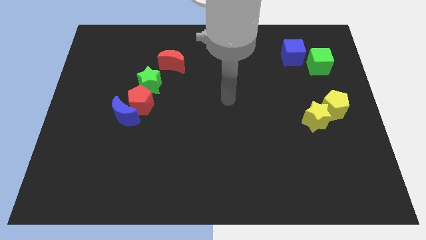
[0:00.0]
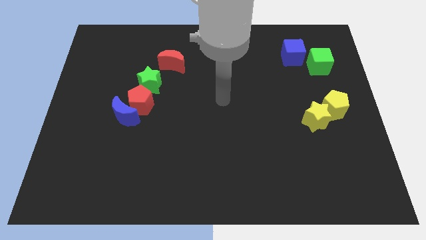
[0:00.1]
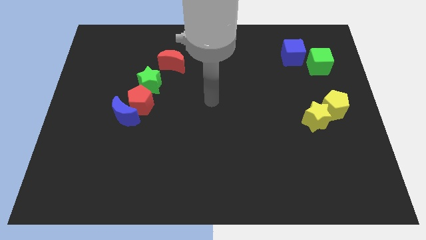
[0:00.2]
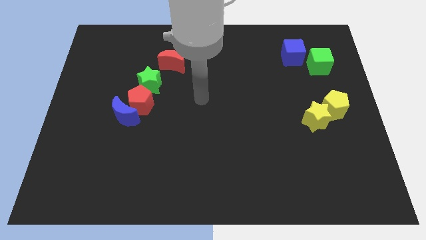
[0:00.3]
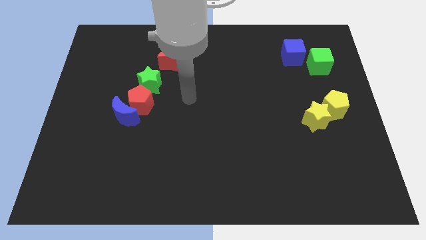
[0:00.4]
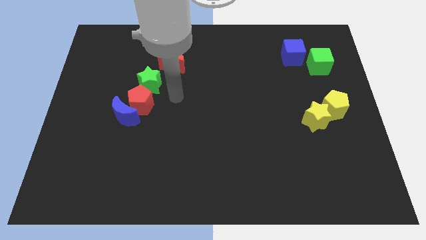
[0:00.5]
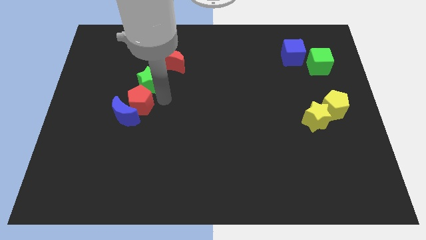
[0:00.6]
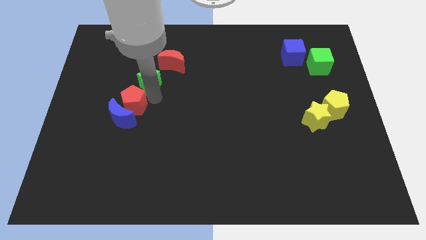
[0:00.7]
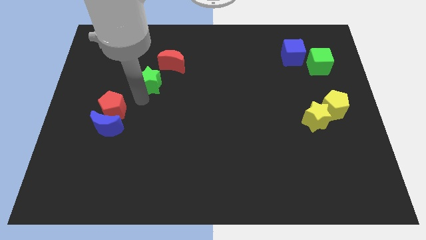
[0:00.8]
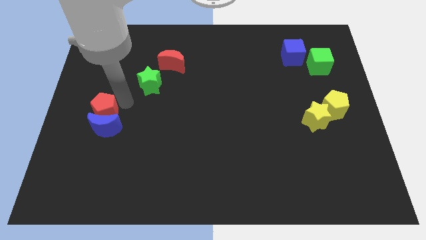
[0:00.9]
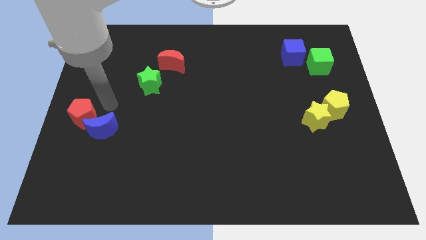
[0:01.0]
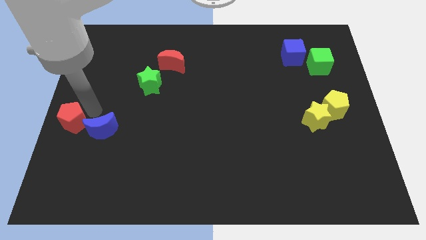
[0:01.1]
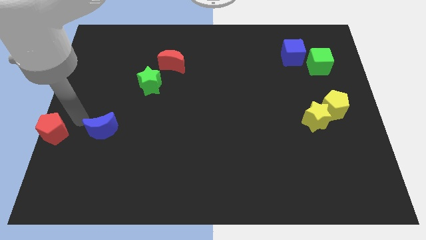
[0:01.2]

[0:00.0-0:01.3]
move the blue moon away from the red pentagon

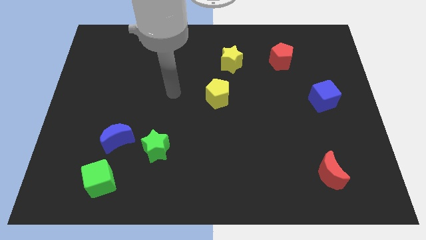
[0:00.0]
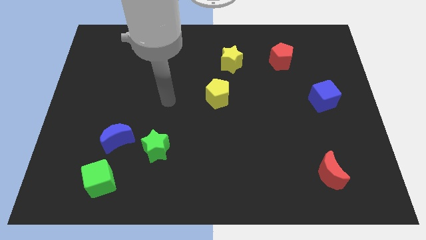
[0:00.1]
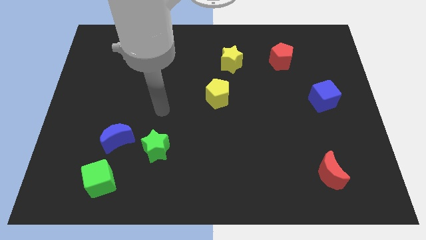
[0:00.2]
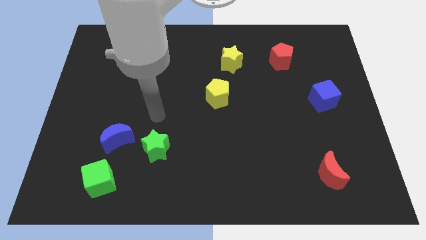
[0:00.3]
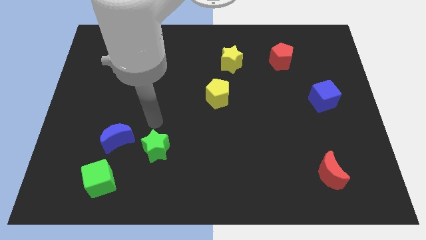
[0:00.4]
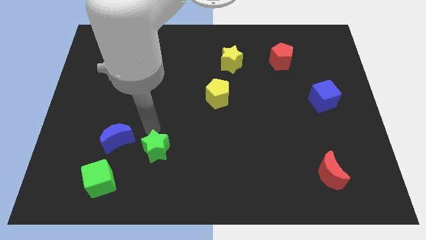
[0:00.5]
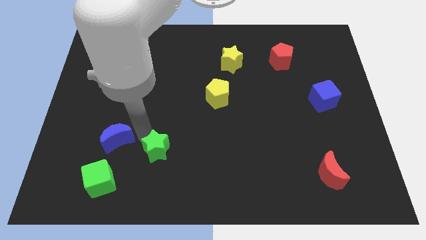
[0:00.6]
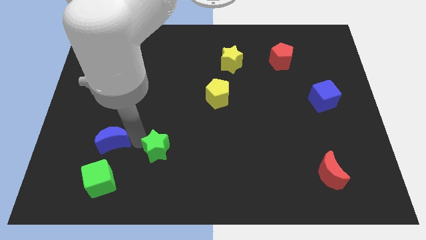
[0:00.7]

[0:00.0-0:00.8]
separate the green star from the blue moon

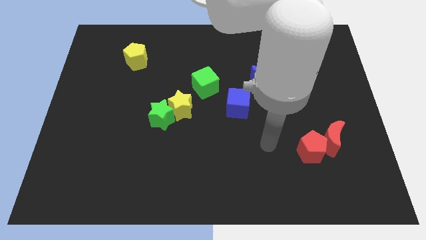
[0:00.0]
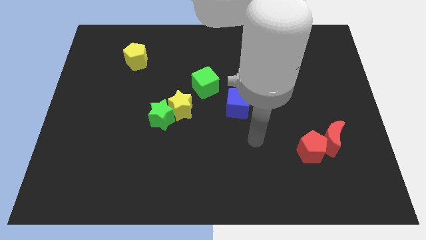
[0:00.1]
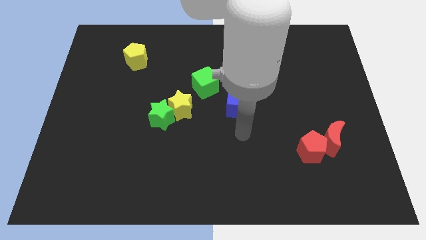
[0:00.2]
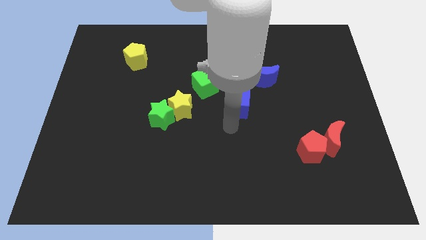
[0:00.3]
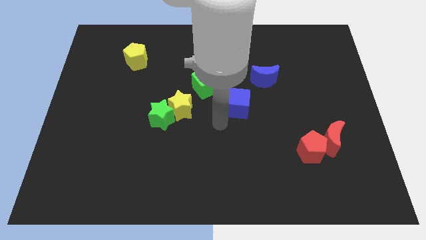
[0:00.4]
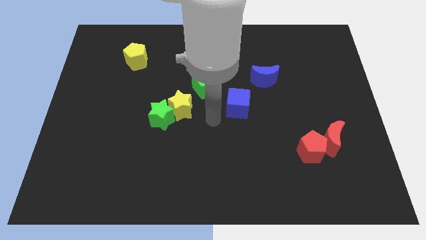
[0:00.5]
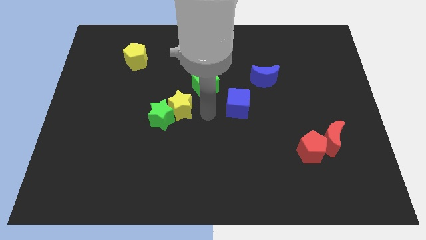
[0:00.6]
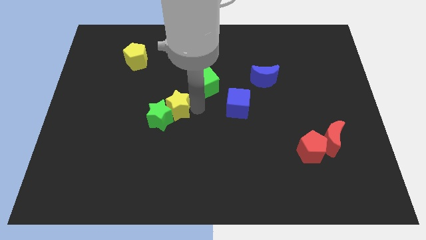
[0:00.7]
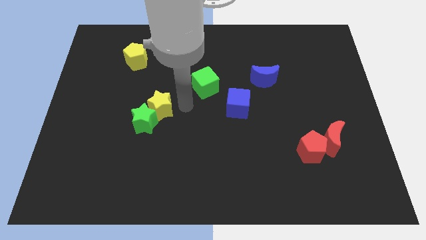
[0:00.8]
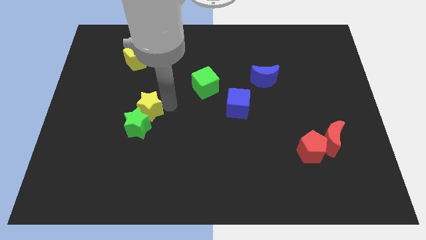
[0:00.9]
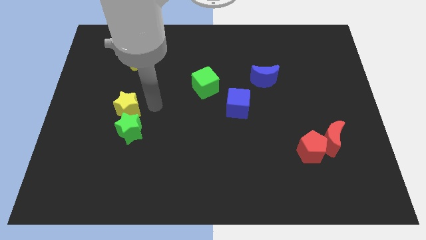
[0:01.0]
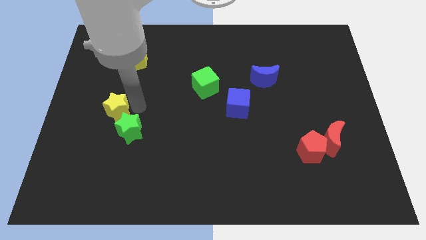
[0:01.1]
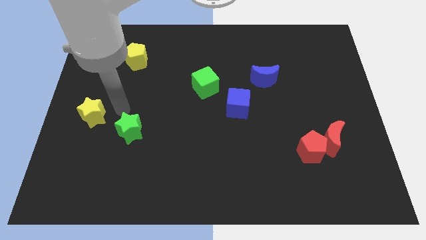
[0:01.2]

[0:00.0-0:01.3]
pull the green star apart from the yellow star

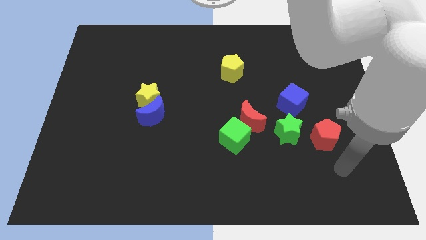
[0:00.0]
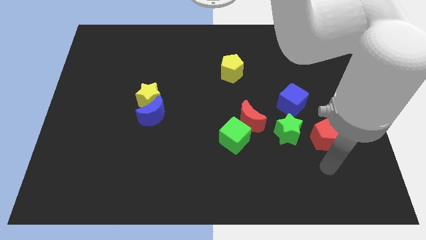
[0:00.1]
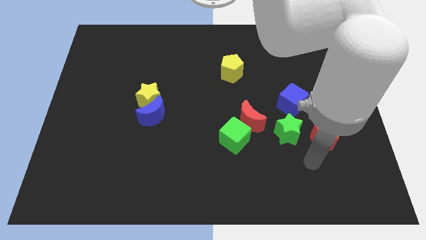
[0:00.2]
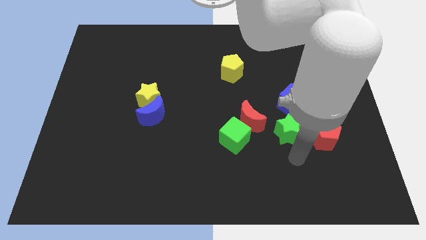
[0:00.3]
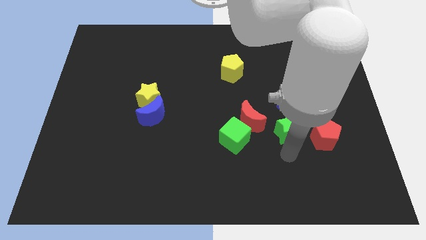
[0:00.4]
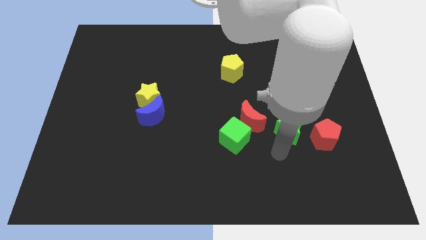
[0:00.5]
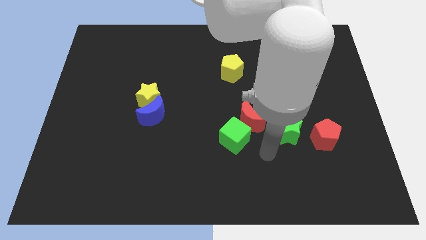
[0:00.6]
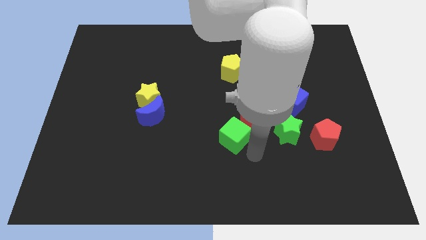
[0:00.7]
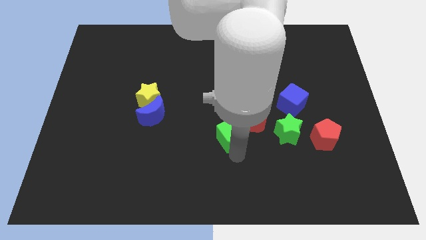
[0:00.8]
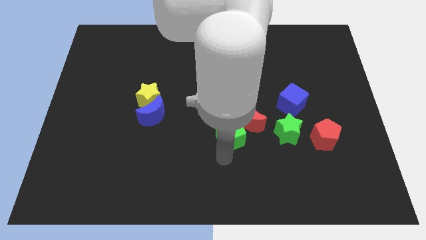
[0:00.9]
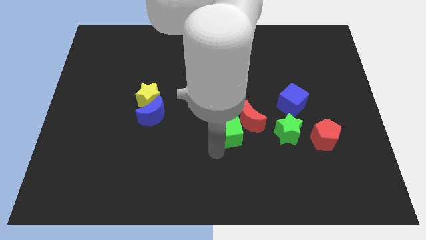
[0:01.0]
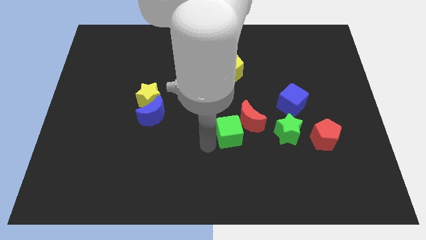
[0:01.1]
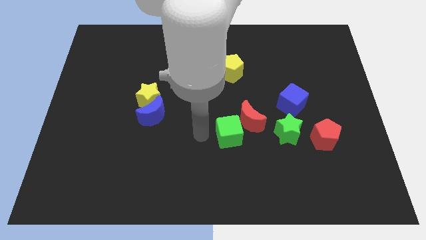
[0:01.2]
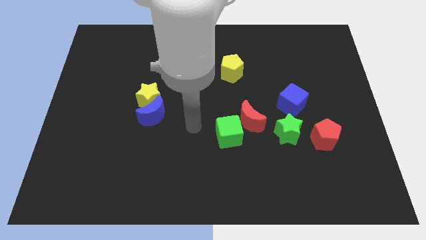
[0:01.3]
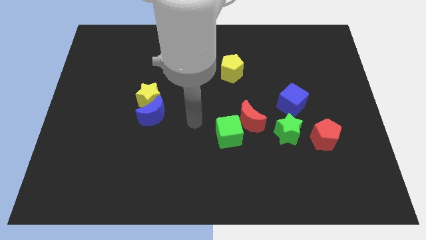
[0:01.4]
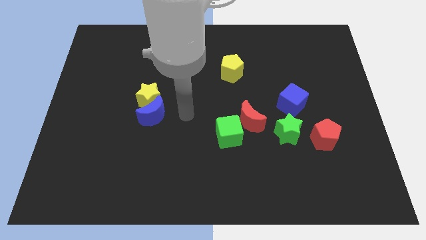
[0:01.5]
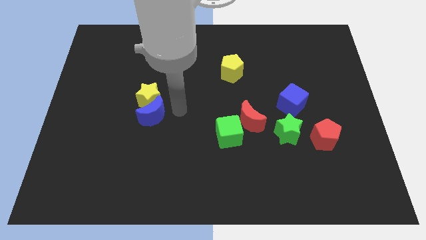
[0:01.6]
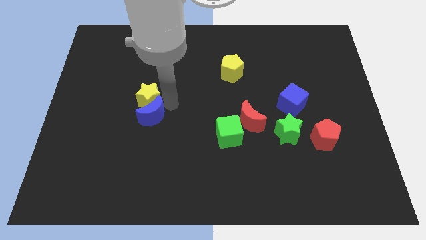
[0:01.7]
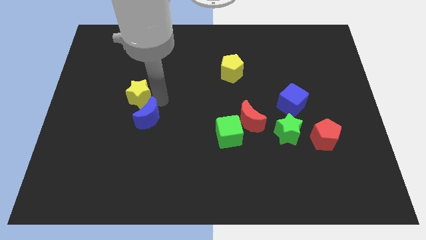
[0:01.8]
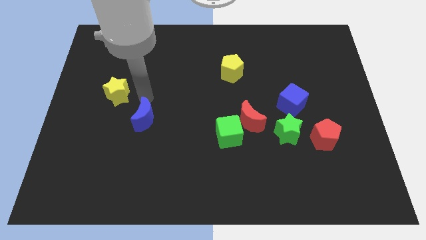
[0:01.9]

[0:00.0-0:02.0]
separate the blue moon from the yellow star

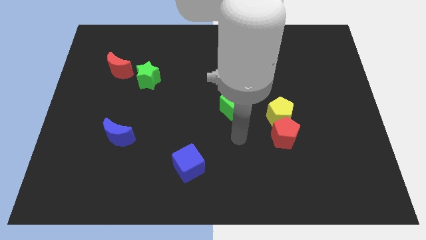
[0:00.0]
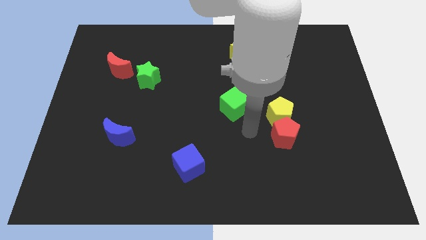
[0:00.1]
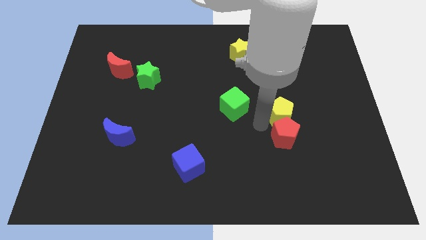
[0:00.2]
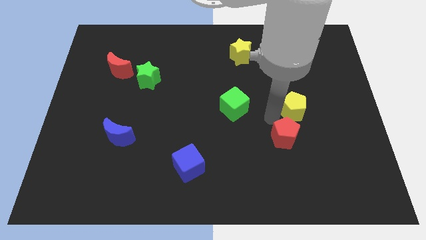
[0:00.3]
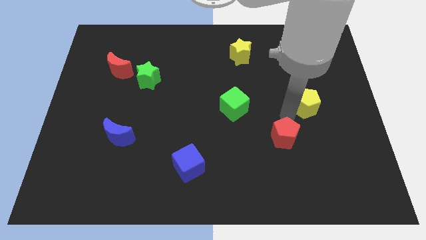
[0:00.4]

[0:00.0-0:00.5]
pull the red pentagon apart from the yellow pentagon

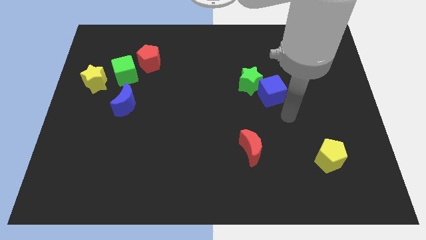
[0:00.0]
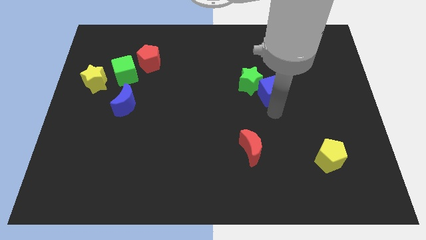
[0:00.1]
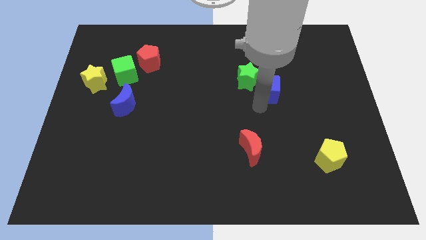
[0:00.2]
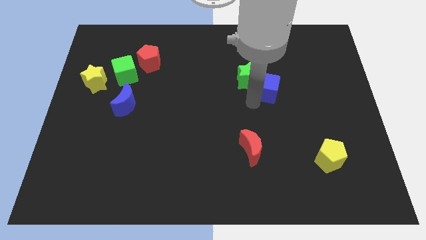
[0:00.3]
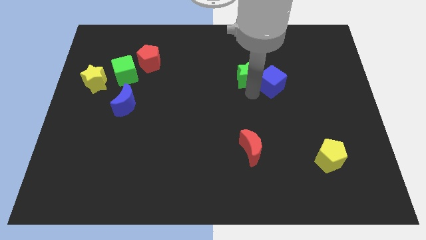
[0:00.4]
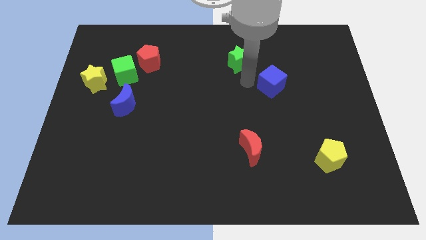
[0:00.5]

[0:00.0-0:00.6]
pull the blue cube apart from the green star

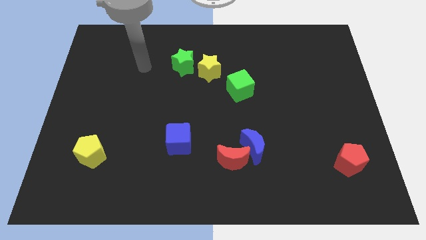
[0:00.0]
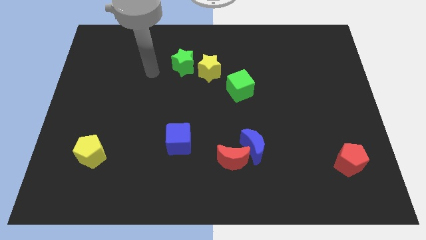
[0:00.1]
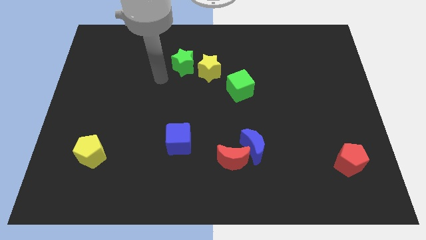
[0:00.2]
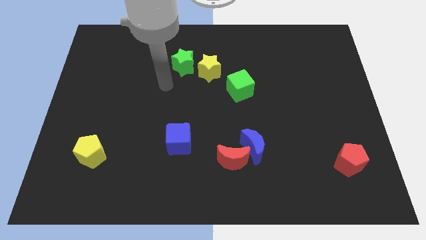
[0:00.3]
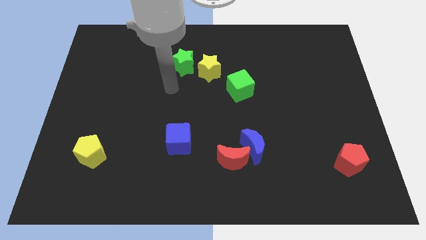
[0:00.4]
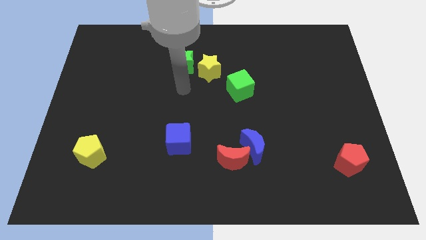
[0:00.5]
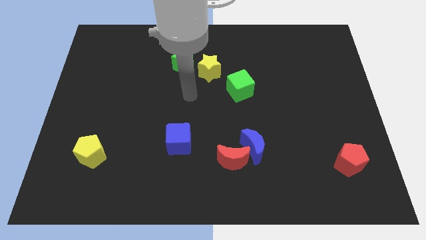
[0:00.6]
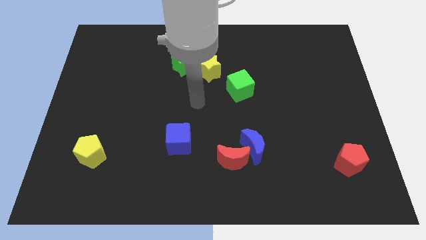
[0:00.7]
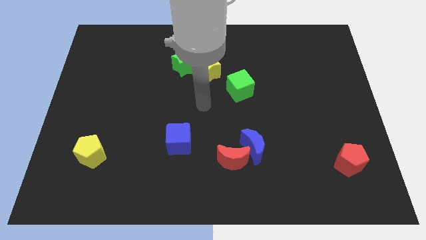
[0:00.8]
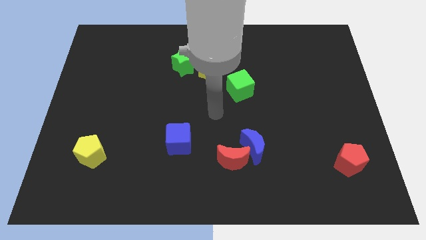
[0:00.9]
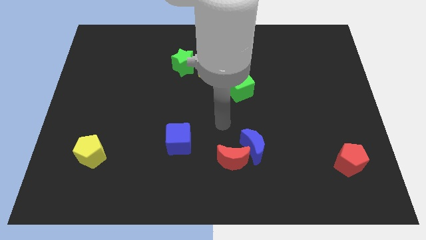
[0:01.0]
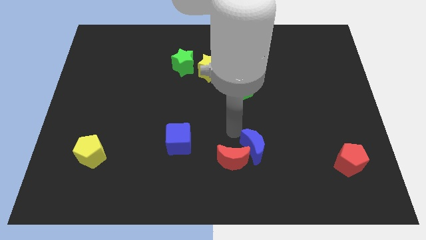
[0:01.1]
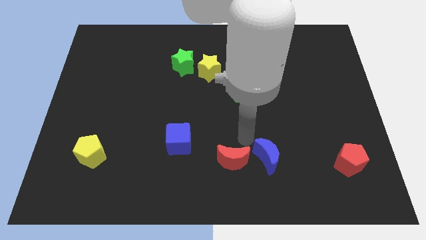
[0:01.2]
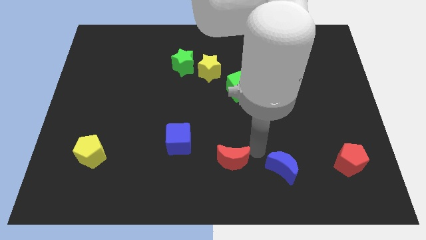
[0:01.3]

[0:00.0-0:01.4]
pull the red moon apart from the blue moon

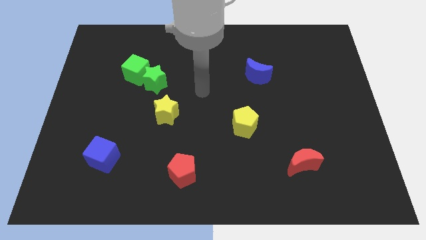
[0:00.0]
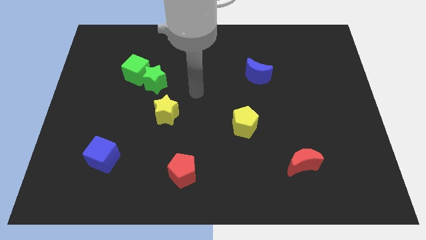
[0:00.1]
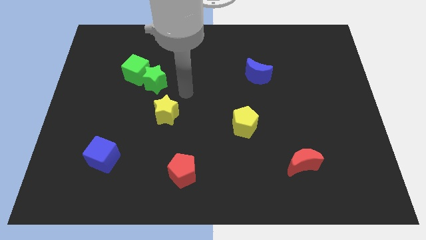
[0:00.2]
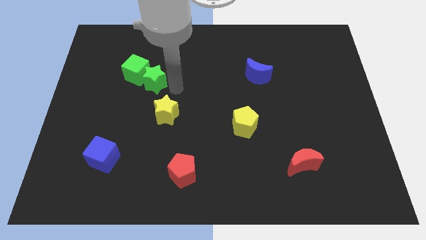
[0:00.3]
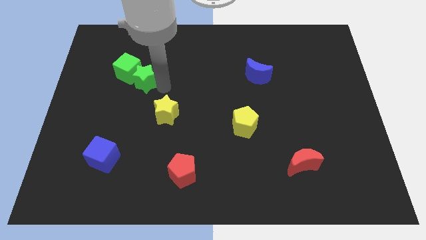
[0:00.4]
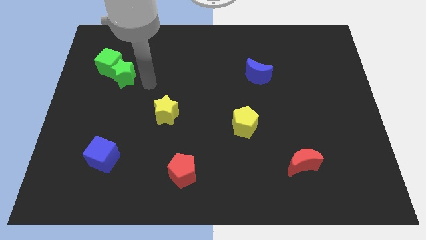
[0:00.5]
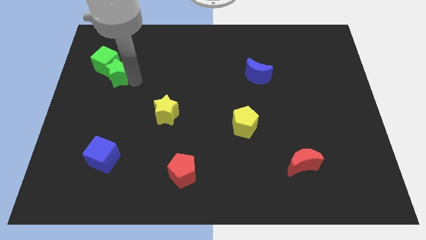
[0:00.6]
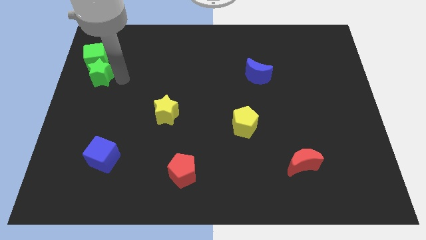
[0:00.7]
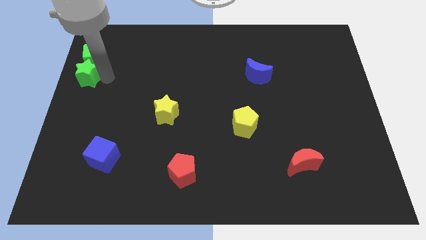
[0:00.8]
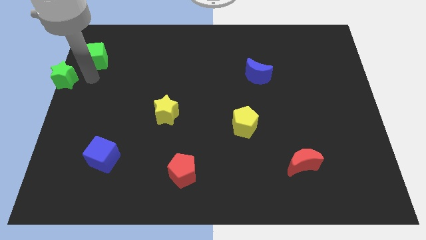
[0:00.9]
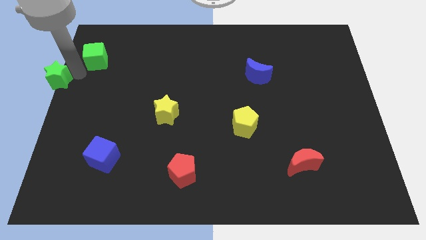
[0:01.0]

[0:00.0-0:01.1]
separate the green cube from the green star

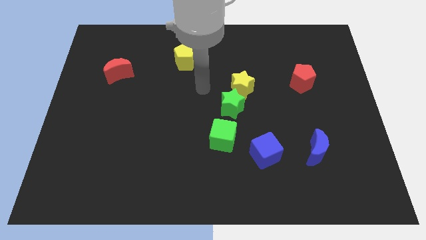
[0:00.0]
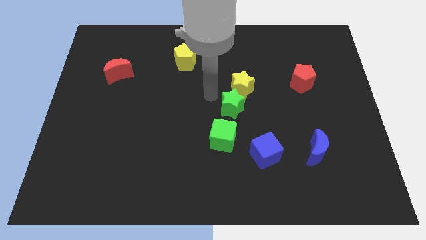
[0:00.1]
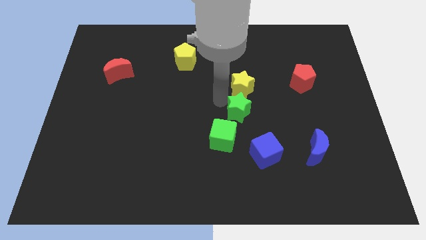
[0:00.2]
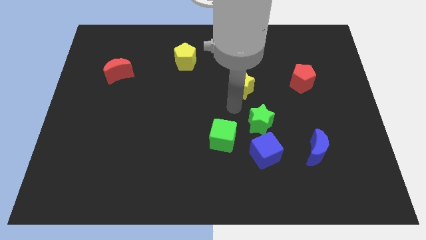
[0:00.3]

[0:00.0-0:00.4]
move the yellow star away from the green star
